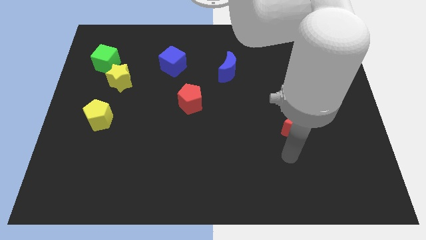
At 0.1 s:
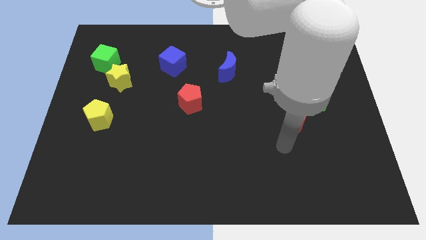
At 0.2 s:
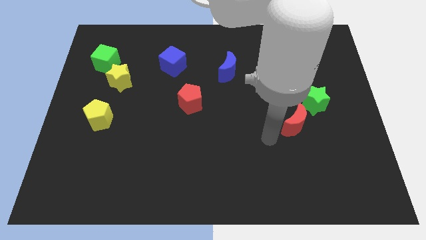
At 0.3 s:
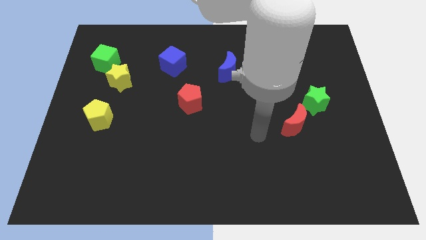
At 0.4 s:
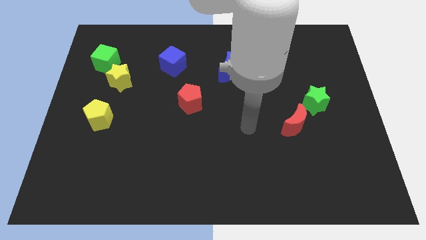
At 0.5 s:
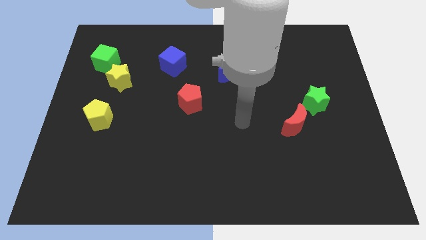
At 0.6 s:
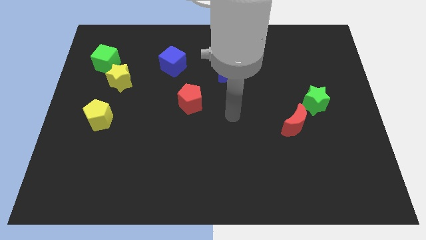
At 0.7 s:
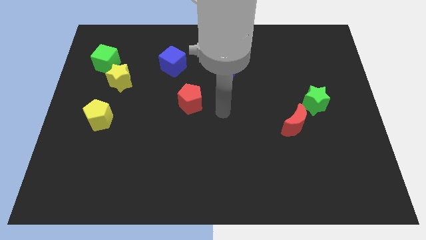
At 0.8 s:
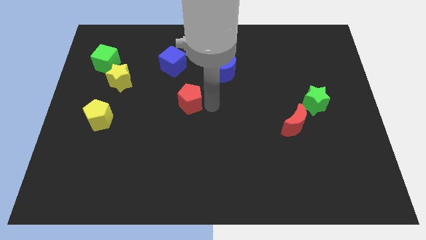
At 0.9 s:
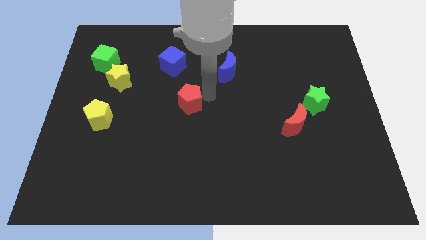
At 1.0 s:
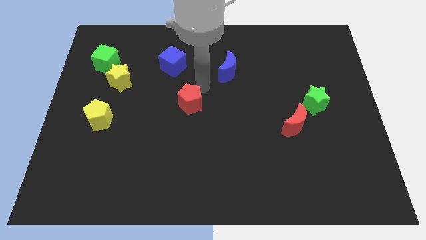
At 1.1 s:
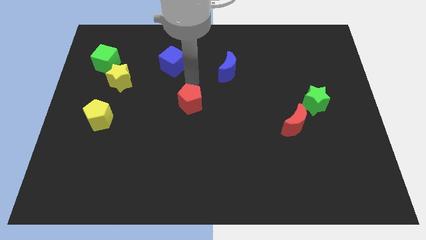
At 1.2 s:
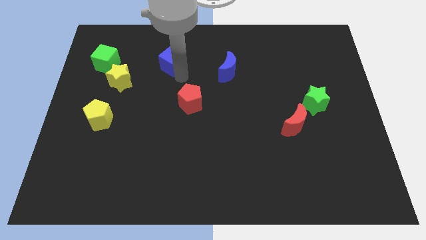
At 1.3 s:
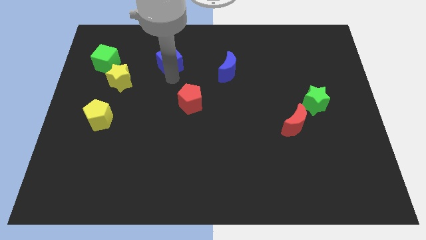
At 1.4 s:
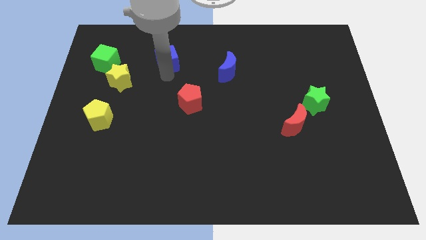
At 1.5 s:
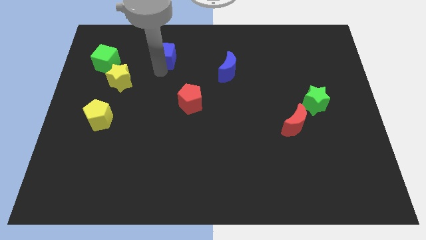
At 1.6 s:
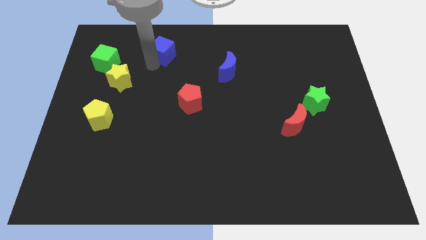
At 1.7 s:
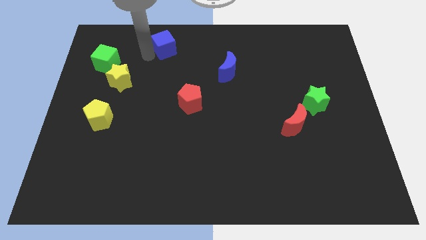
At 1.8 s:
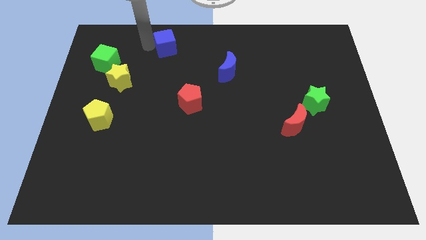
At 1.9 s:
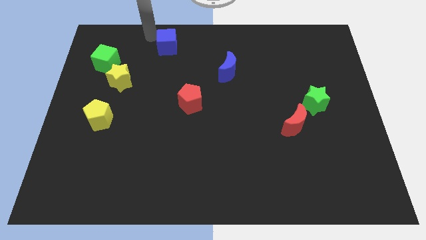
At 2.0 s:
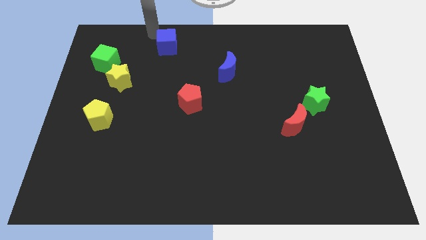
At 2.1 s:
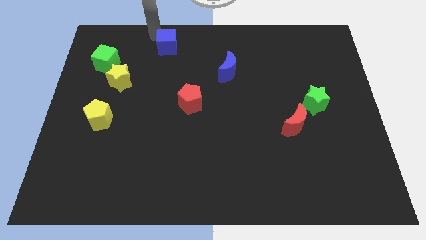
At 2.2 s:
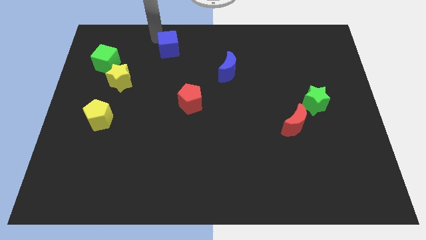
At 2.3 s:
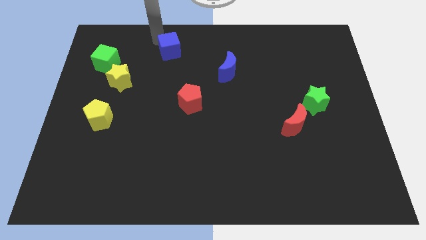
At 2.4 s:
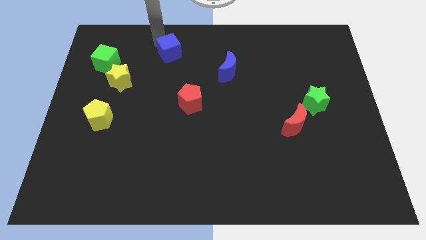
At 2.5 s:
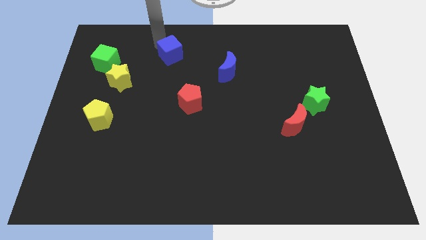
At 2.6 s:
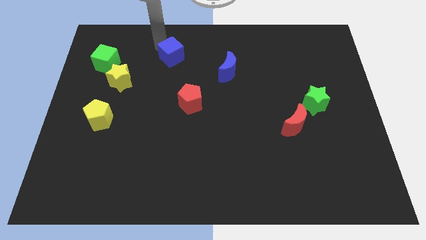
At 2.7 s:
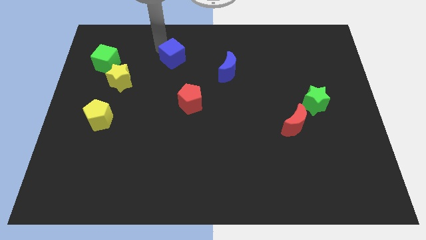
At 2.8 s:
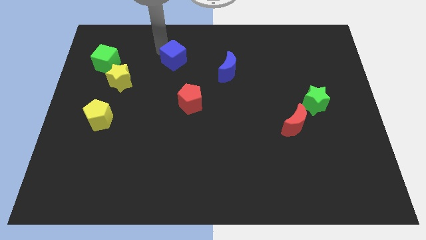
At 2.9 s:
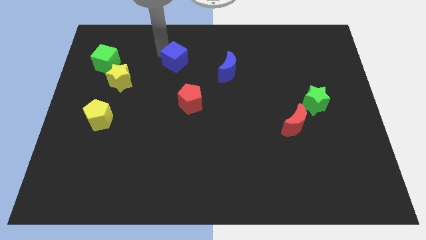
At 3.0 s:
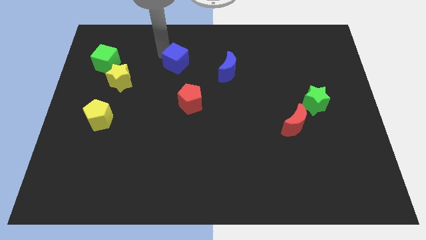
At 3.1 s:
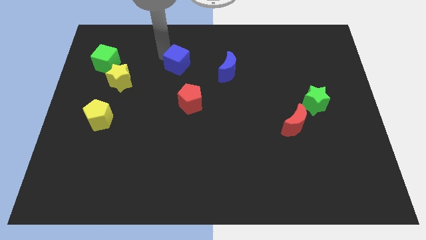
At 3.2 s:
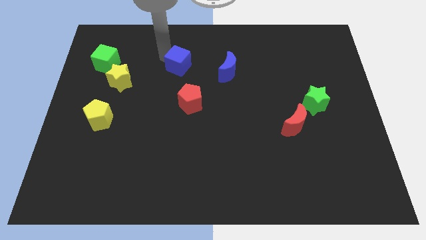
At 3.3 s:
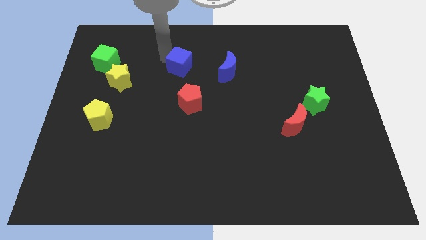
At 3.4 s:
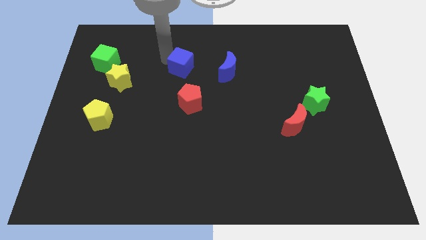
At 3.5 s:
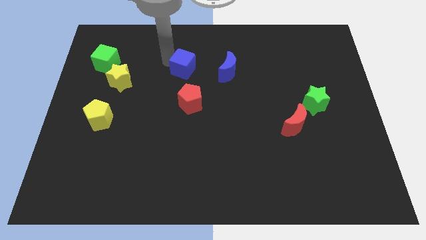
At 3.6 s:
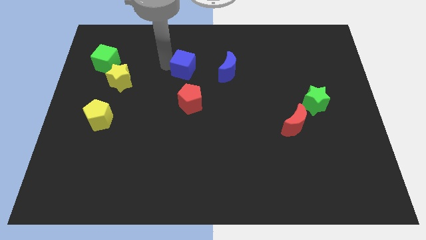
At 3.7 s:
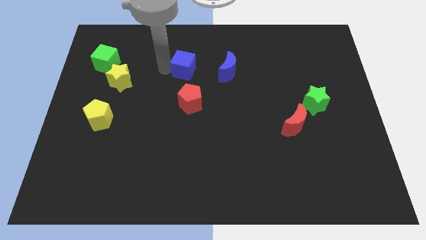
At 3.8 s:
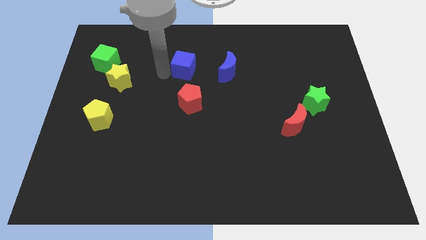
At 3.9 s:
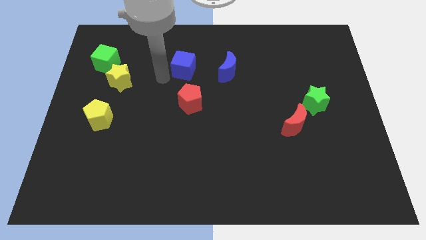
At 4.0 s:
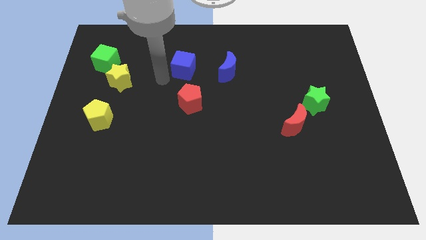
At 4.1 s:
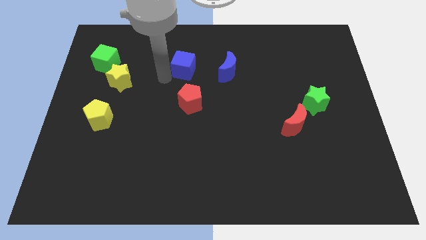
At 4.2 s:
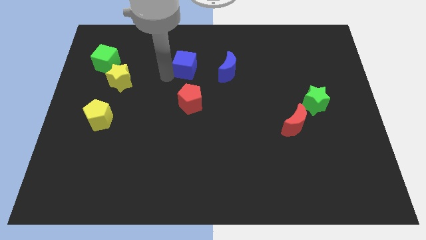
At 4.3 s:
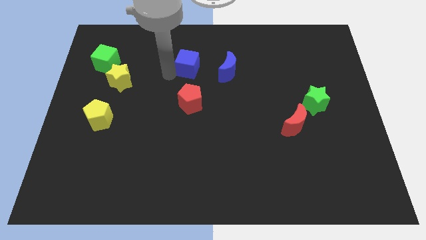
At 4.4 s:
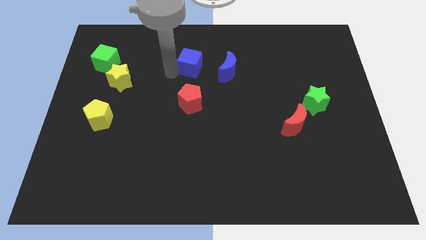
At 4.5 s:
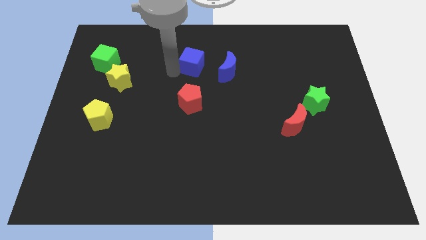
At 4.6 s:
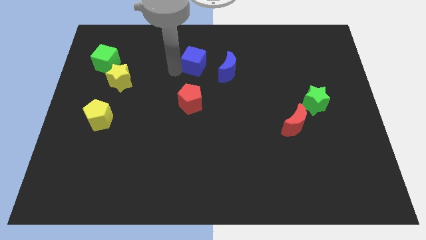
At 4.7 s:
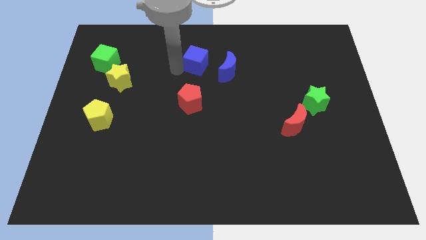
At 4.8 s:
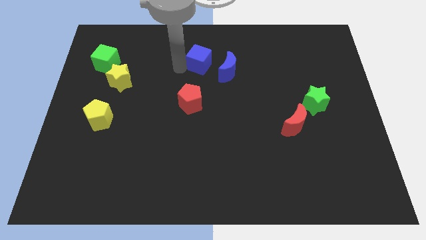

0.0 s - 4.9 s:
slightly slide the blue cube to the right

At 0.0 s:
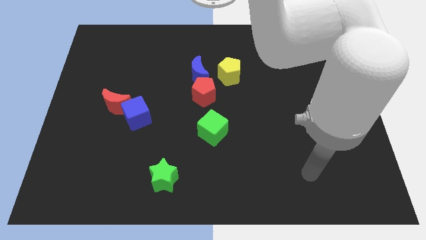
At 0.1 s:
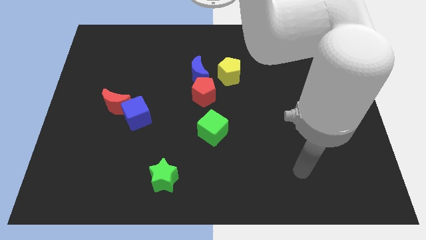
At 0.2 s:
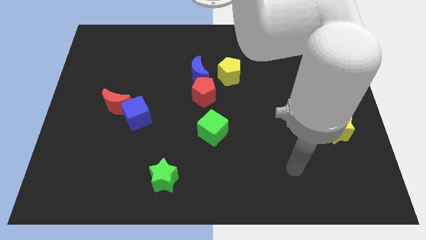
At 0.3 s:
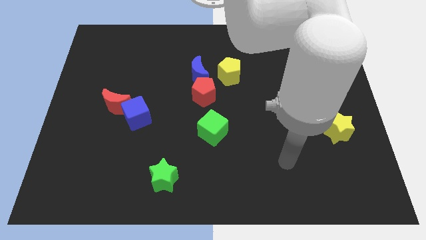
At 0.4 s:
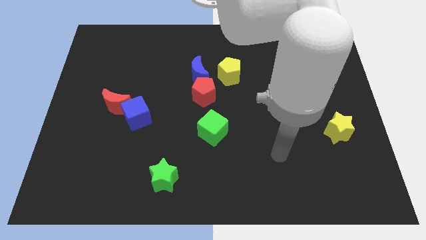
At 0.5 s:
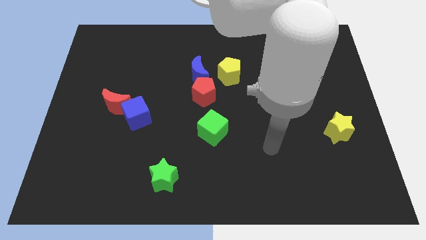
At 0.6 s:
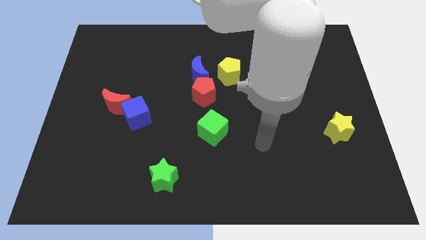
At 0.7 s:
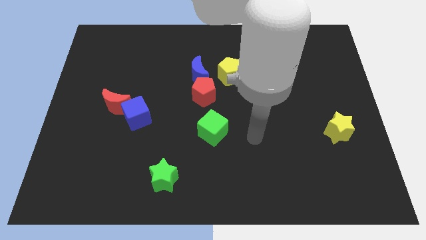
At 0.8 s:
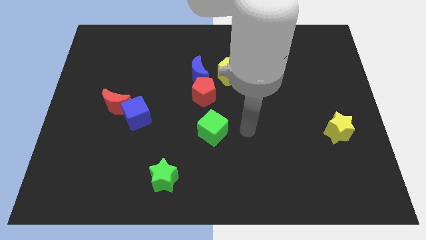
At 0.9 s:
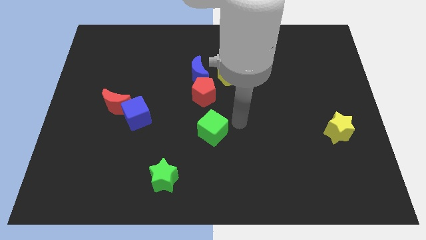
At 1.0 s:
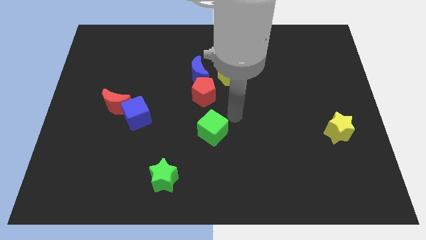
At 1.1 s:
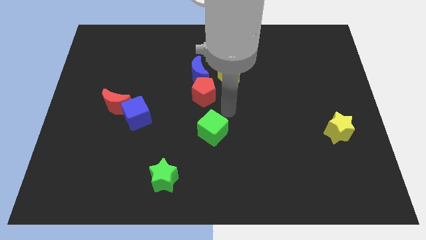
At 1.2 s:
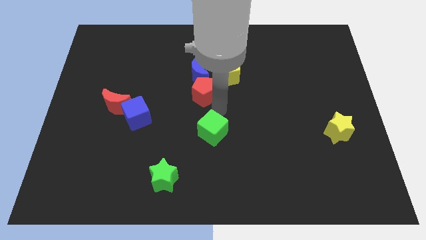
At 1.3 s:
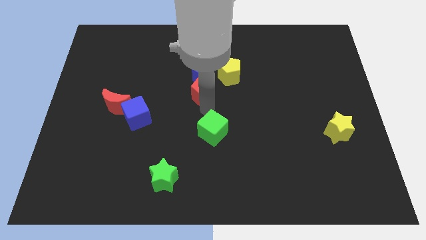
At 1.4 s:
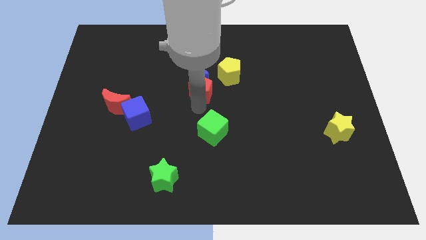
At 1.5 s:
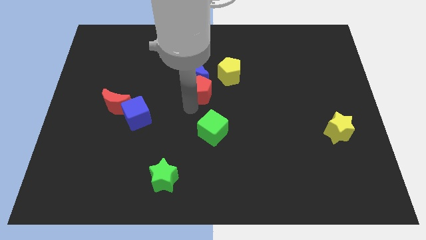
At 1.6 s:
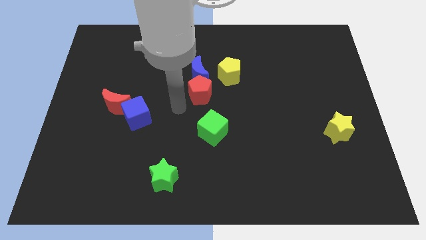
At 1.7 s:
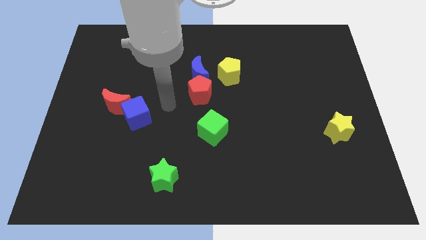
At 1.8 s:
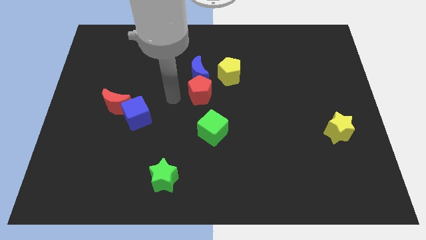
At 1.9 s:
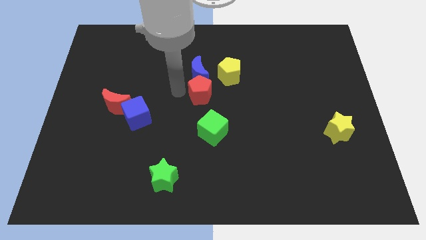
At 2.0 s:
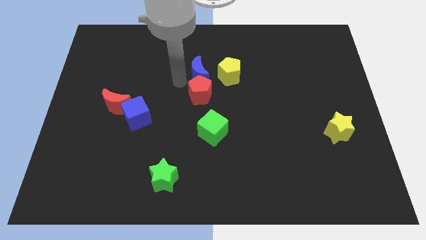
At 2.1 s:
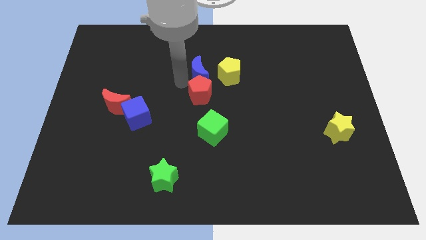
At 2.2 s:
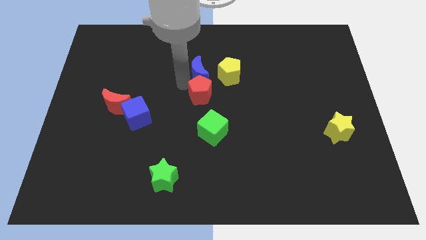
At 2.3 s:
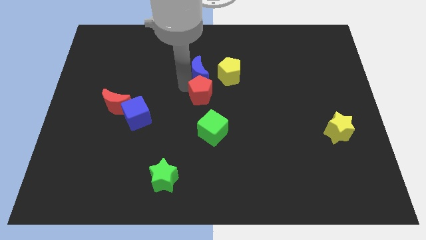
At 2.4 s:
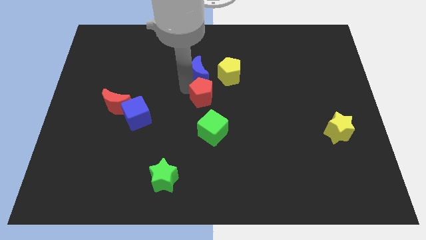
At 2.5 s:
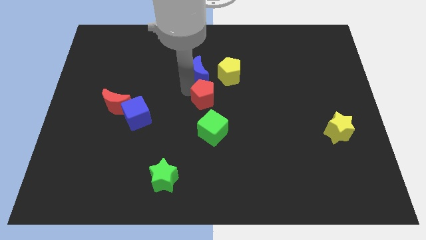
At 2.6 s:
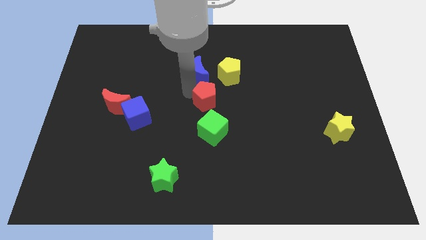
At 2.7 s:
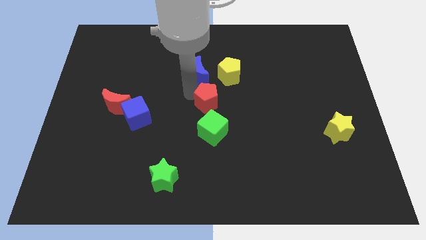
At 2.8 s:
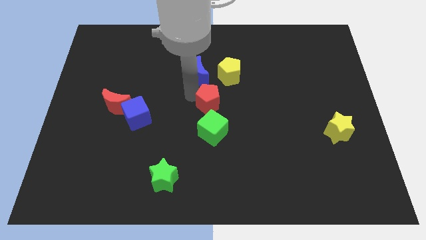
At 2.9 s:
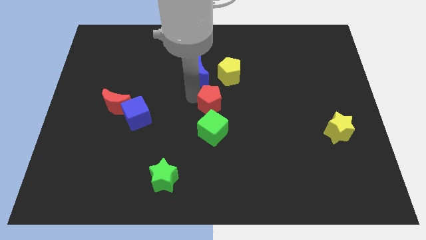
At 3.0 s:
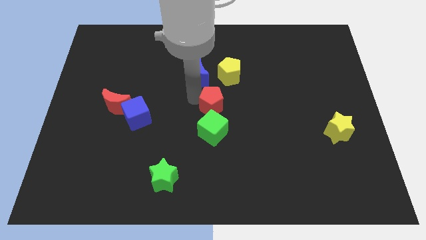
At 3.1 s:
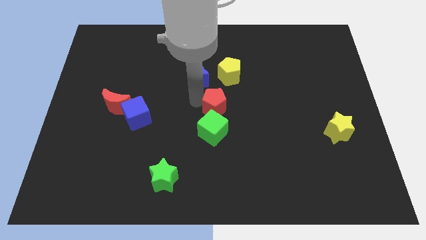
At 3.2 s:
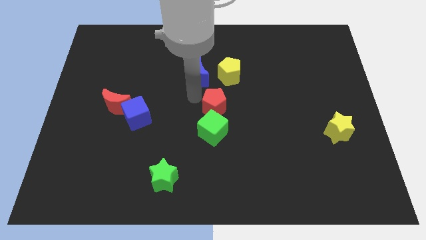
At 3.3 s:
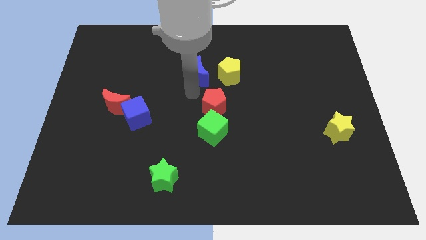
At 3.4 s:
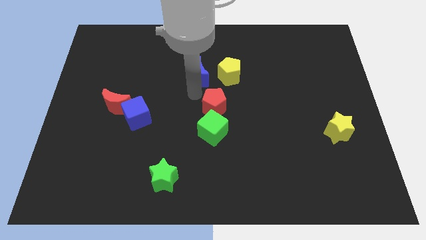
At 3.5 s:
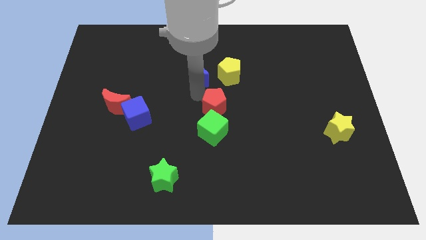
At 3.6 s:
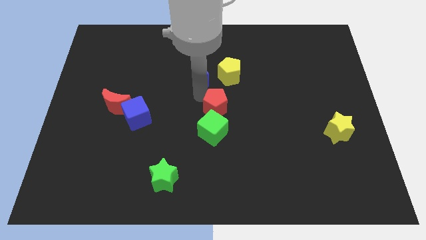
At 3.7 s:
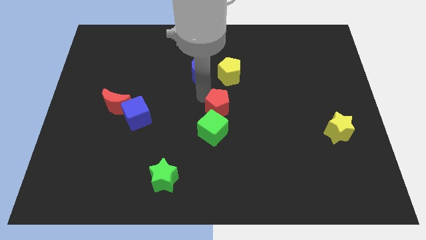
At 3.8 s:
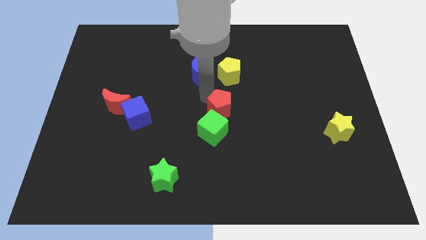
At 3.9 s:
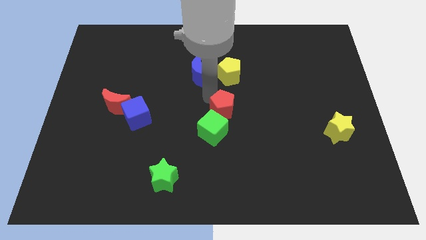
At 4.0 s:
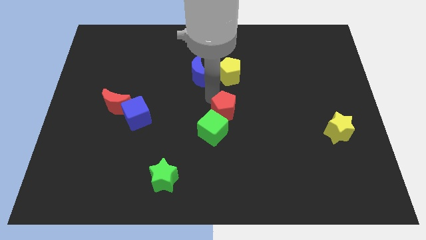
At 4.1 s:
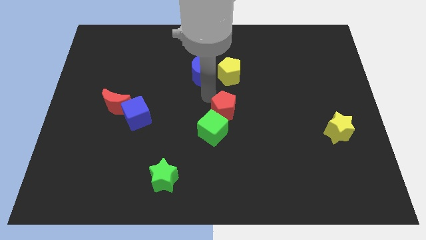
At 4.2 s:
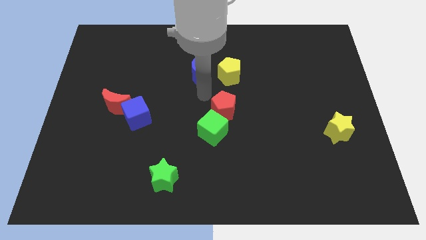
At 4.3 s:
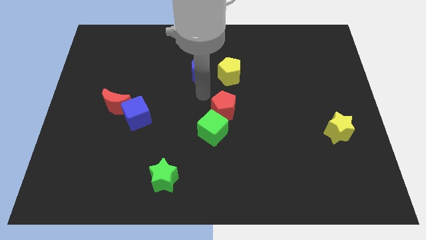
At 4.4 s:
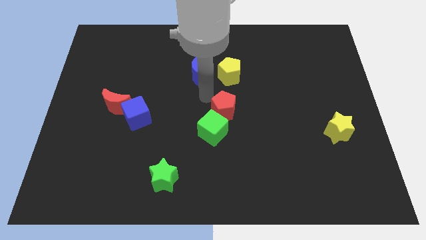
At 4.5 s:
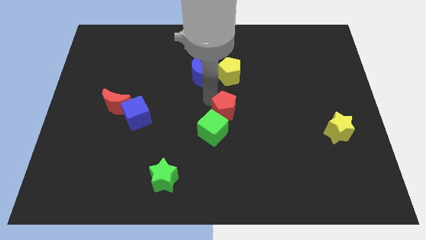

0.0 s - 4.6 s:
slightly push the red pentagon downwards and then right
